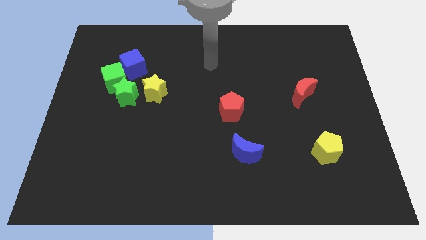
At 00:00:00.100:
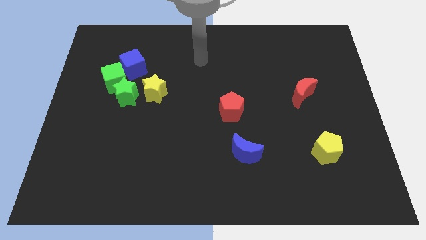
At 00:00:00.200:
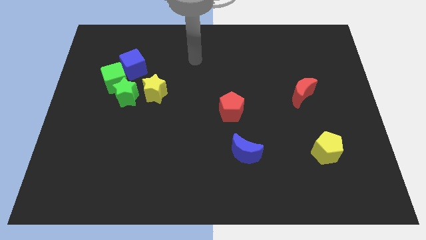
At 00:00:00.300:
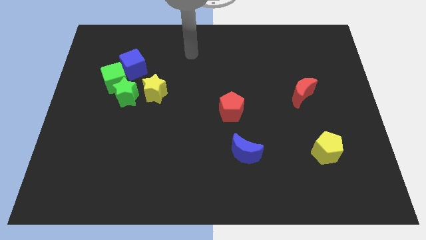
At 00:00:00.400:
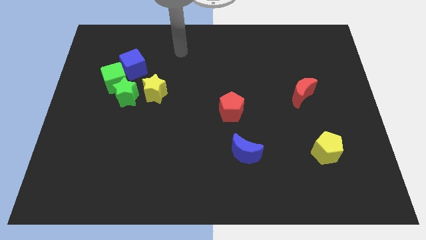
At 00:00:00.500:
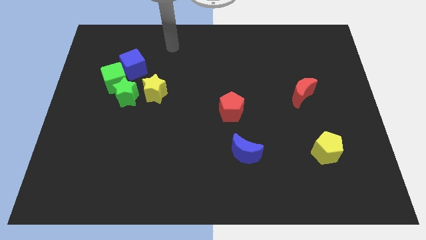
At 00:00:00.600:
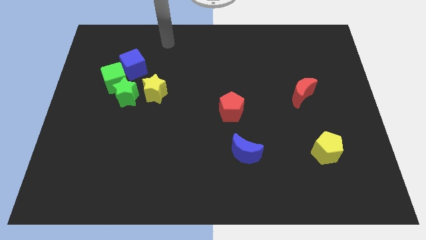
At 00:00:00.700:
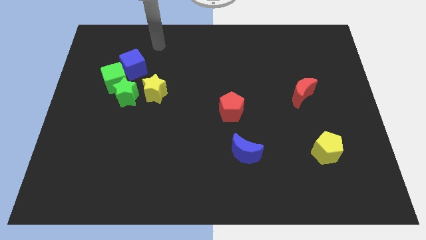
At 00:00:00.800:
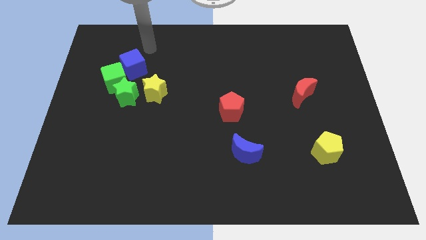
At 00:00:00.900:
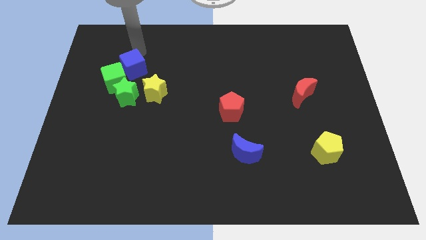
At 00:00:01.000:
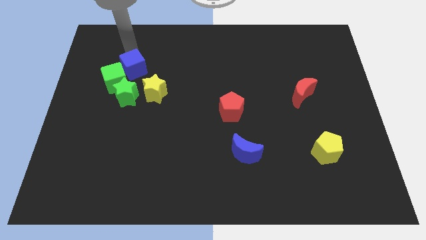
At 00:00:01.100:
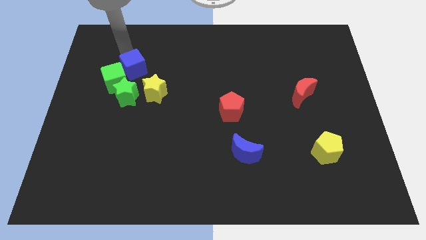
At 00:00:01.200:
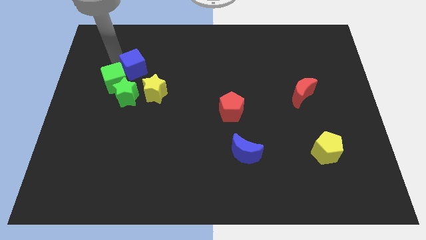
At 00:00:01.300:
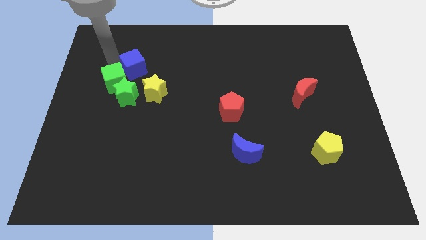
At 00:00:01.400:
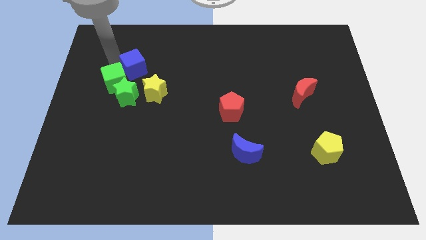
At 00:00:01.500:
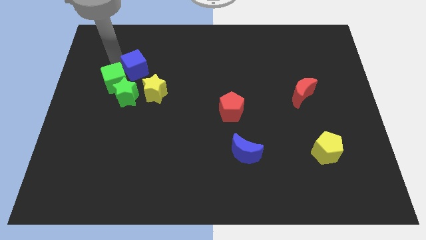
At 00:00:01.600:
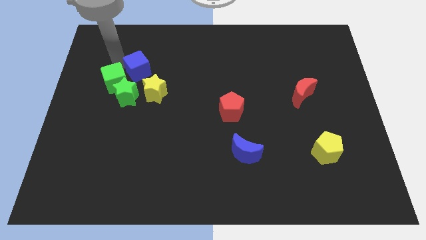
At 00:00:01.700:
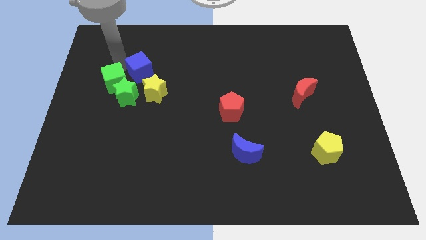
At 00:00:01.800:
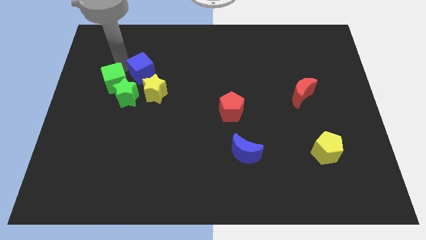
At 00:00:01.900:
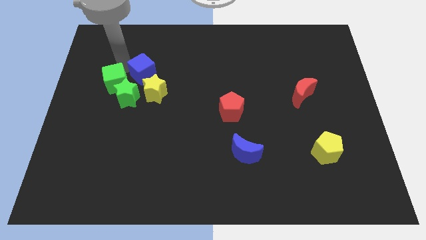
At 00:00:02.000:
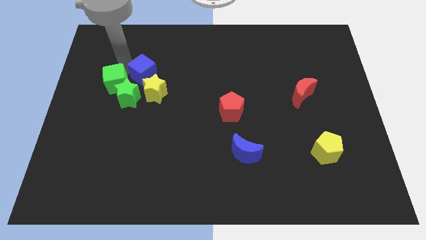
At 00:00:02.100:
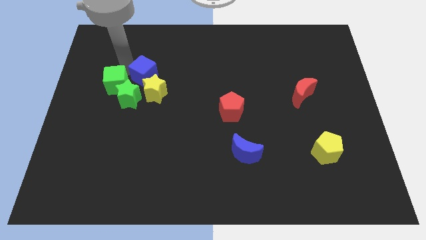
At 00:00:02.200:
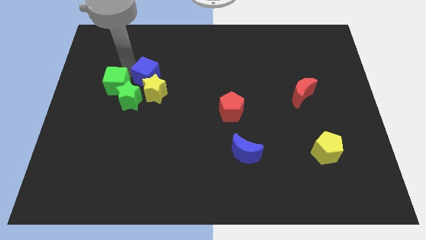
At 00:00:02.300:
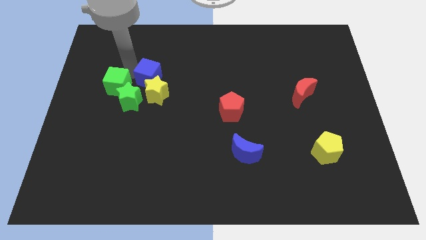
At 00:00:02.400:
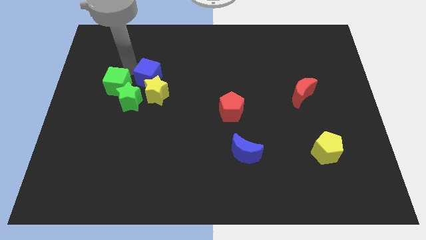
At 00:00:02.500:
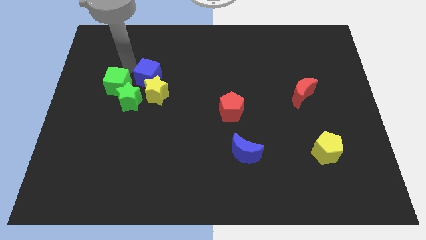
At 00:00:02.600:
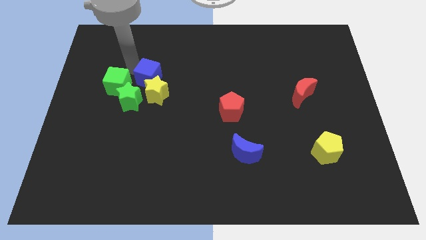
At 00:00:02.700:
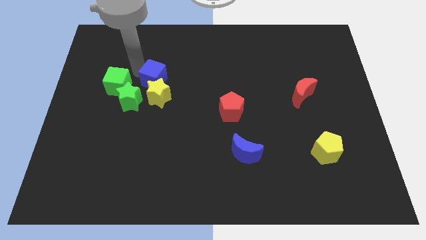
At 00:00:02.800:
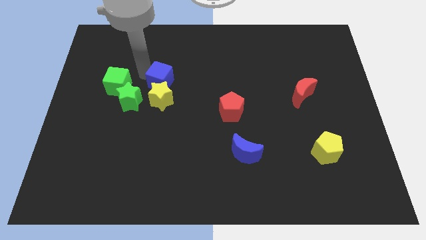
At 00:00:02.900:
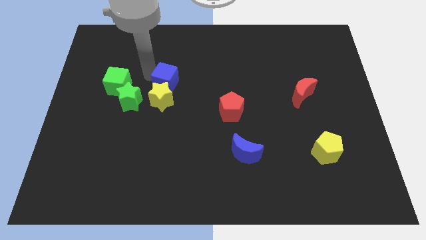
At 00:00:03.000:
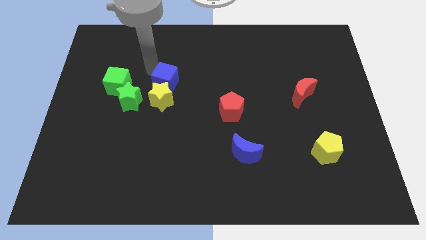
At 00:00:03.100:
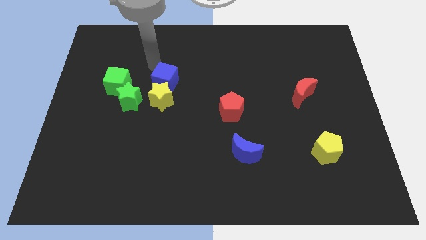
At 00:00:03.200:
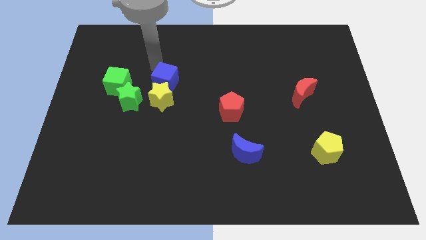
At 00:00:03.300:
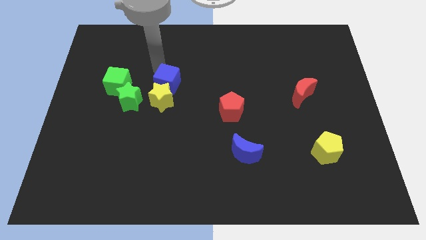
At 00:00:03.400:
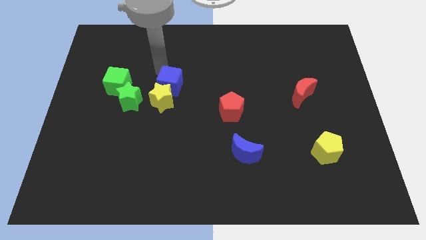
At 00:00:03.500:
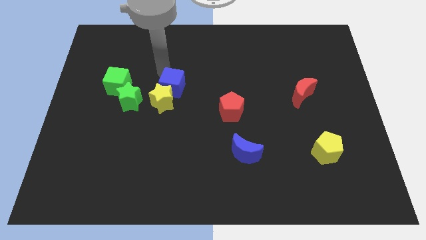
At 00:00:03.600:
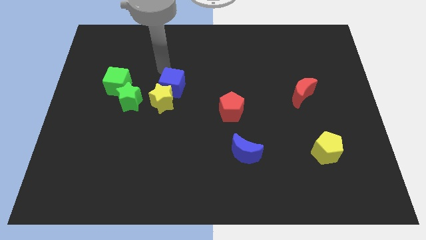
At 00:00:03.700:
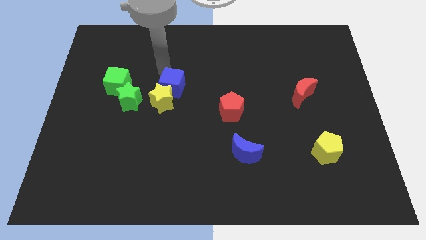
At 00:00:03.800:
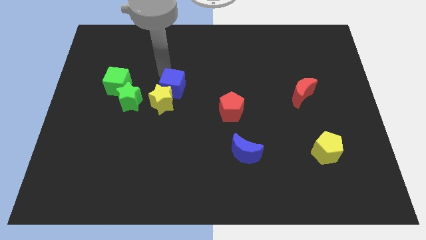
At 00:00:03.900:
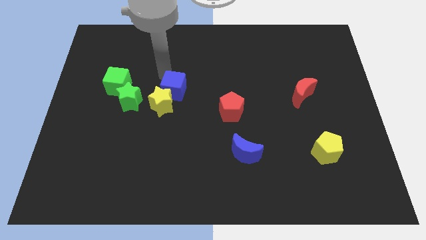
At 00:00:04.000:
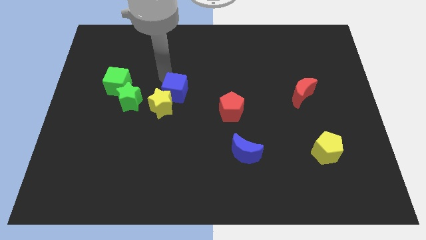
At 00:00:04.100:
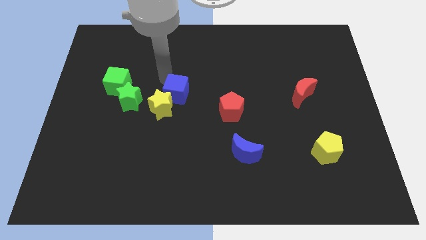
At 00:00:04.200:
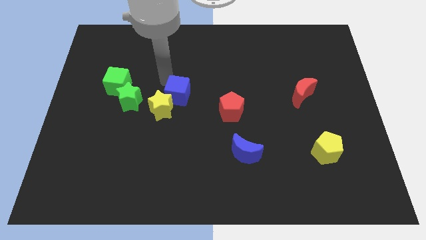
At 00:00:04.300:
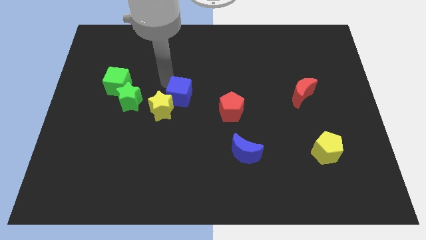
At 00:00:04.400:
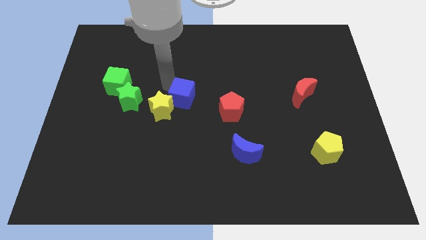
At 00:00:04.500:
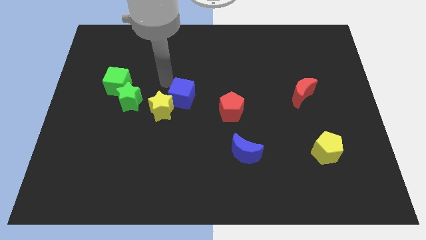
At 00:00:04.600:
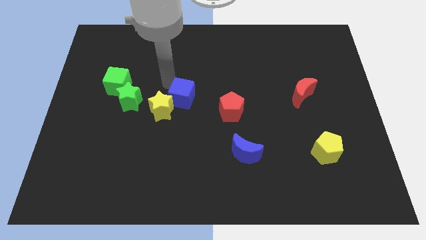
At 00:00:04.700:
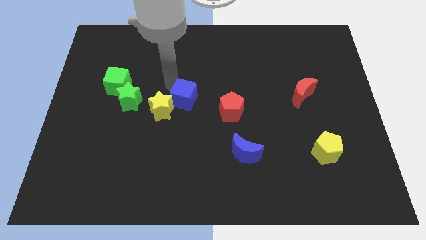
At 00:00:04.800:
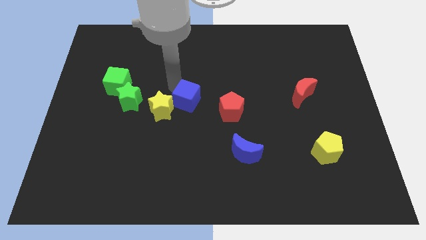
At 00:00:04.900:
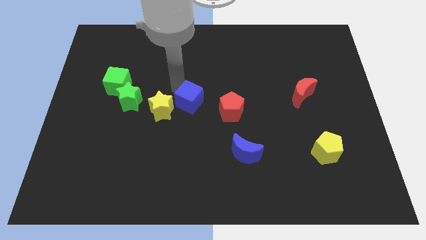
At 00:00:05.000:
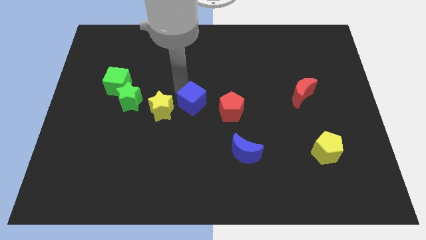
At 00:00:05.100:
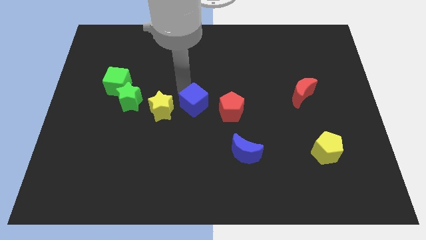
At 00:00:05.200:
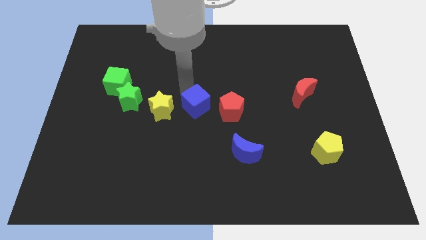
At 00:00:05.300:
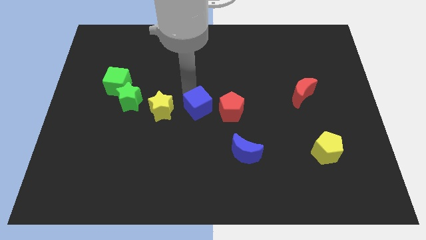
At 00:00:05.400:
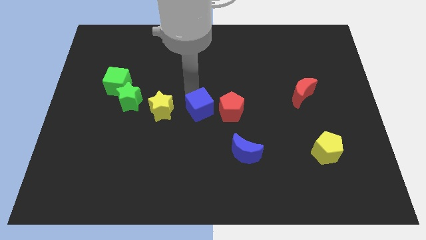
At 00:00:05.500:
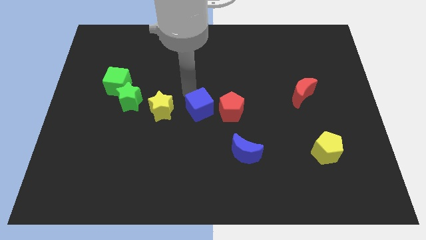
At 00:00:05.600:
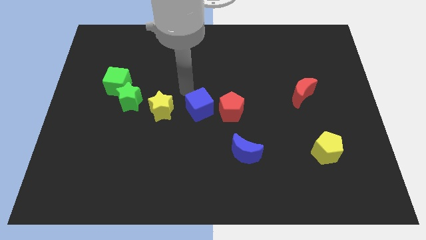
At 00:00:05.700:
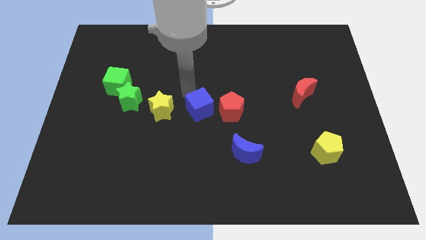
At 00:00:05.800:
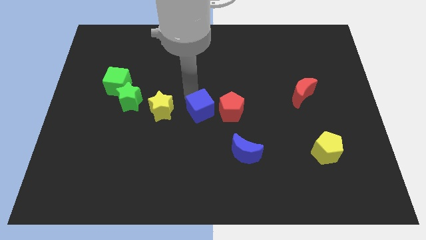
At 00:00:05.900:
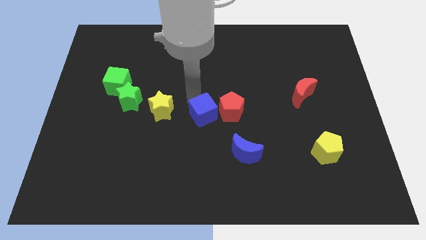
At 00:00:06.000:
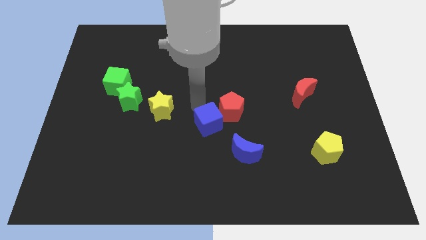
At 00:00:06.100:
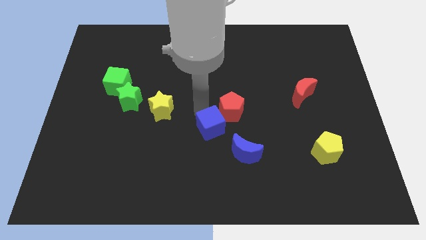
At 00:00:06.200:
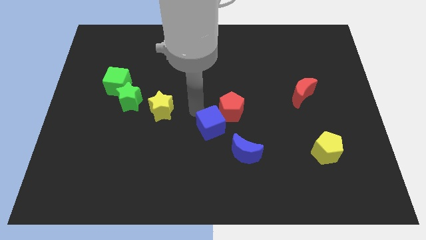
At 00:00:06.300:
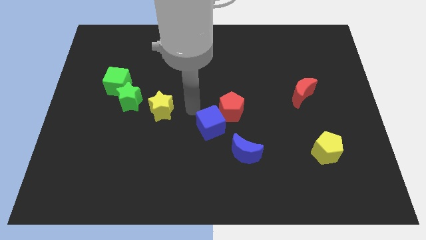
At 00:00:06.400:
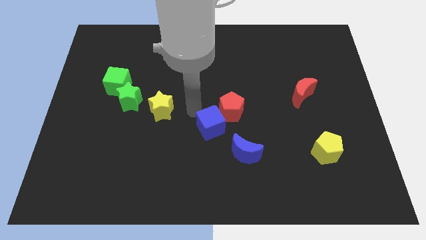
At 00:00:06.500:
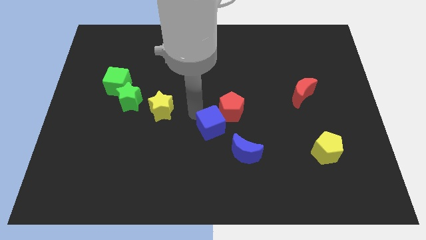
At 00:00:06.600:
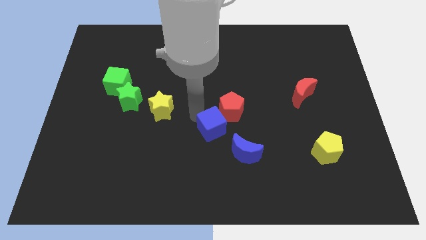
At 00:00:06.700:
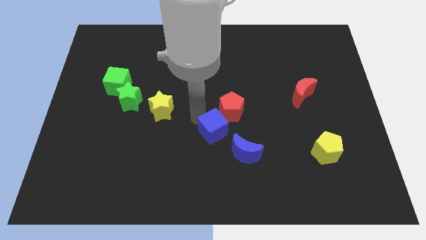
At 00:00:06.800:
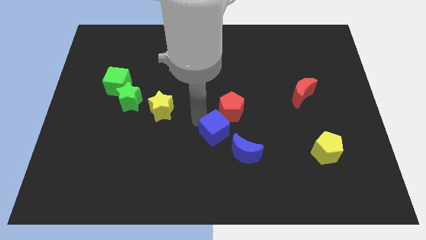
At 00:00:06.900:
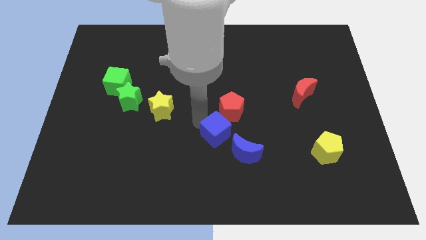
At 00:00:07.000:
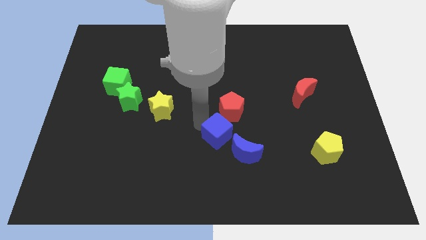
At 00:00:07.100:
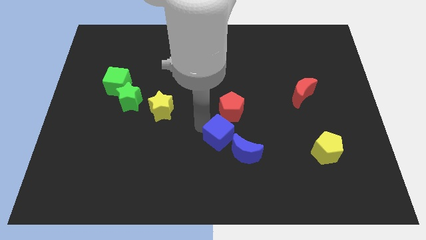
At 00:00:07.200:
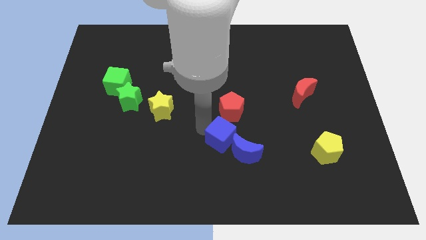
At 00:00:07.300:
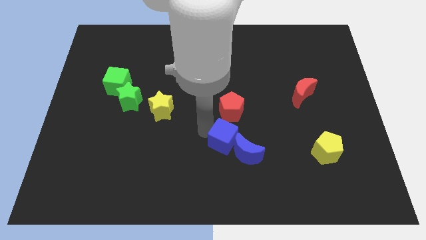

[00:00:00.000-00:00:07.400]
move the blue cube next to the blue moon
